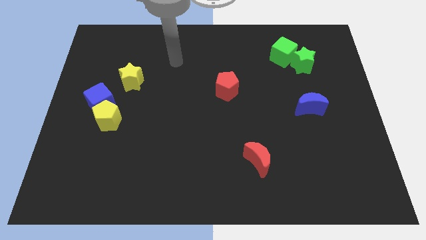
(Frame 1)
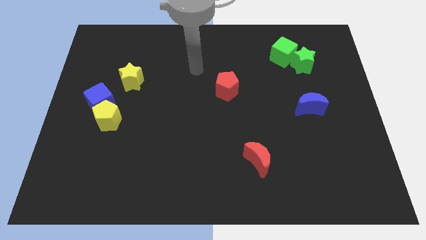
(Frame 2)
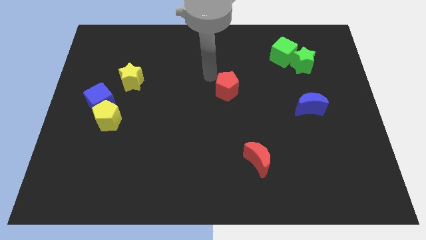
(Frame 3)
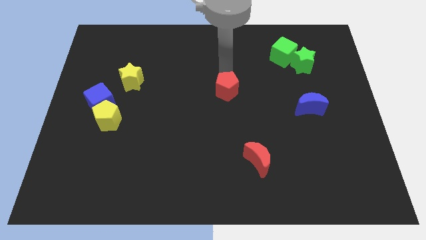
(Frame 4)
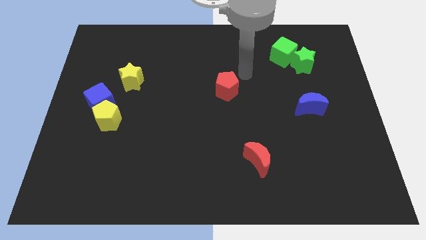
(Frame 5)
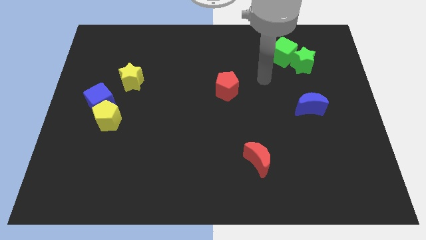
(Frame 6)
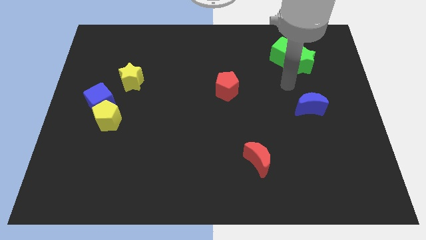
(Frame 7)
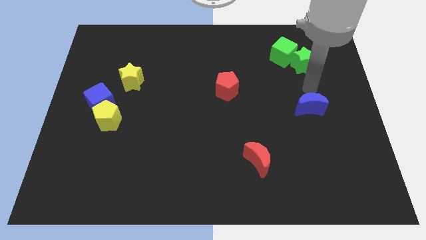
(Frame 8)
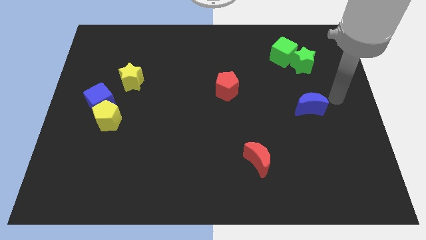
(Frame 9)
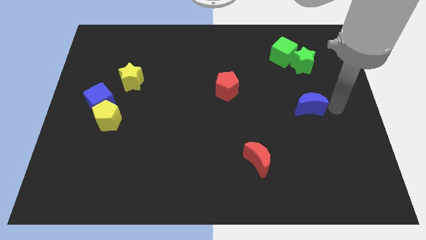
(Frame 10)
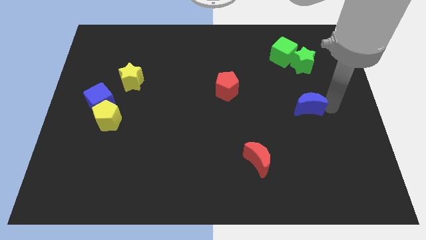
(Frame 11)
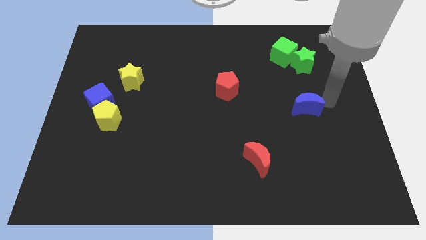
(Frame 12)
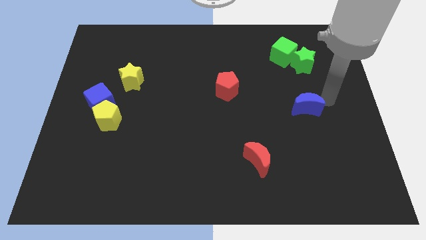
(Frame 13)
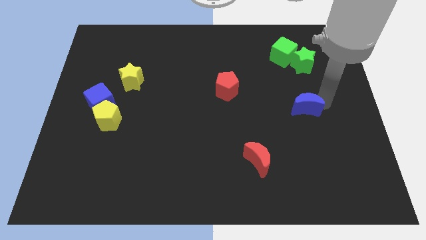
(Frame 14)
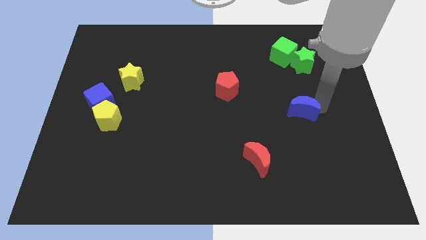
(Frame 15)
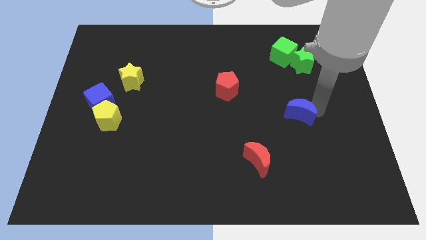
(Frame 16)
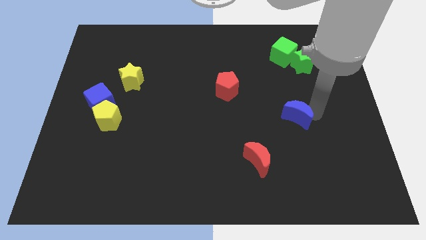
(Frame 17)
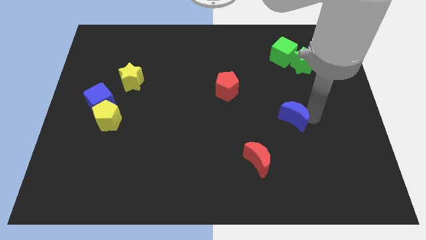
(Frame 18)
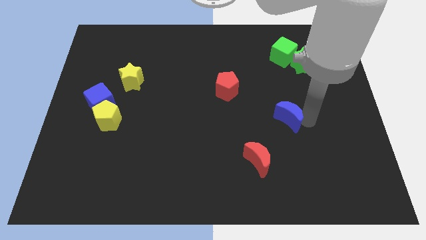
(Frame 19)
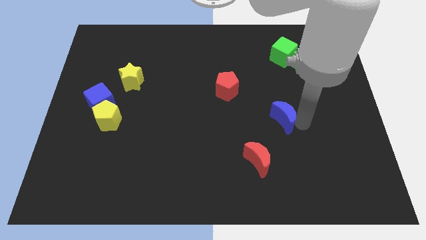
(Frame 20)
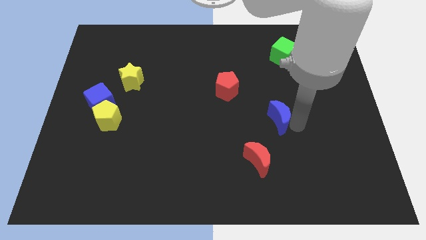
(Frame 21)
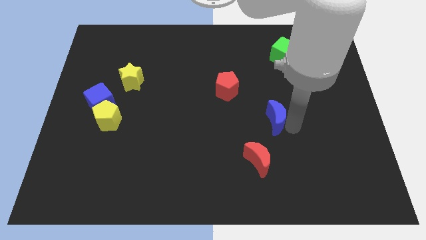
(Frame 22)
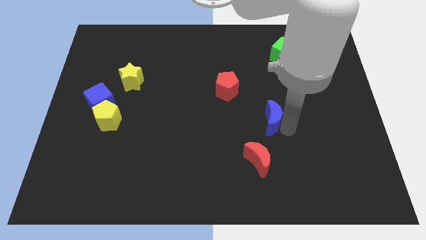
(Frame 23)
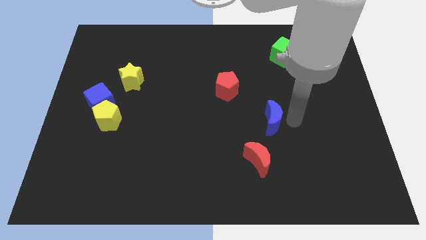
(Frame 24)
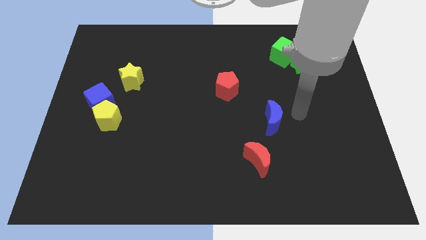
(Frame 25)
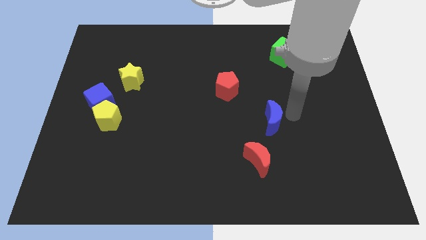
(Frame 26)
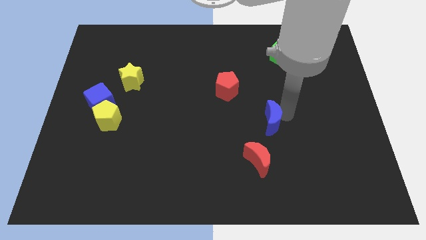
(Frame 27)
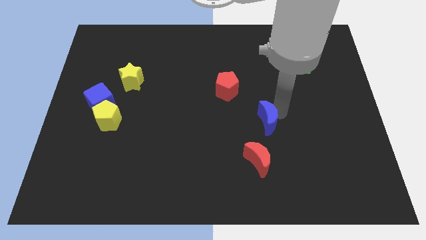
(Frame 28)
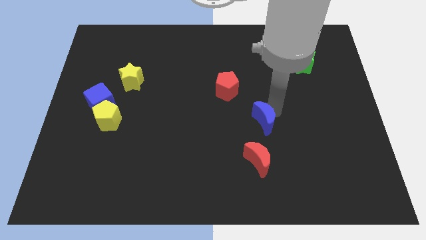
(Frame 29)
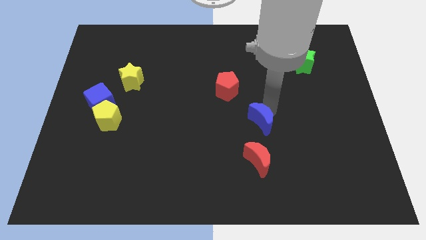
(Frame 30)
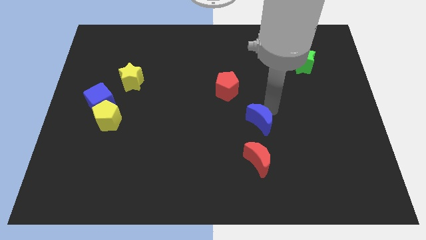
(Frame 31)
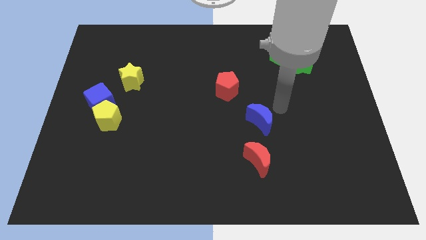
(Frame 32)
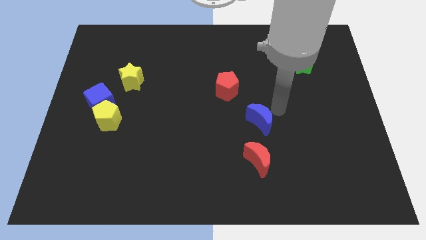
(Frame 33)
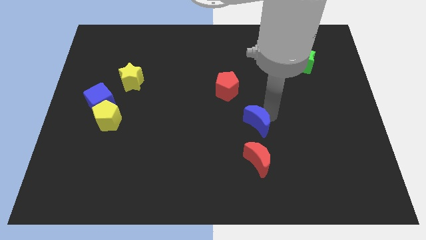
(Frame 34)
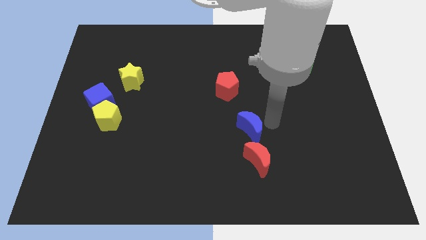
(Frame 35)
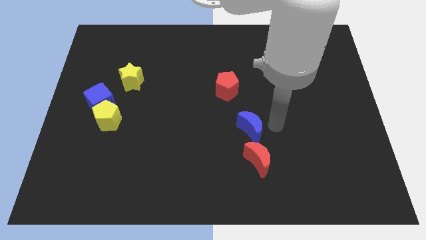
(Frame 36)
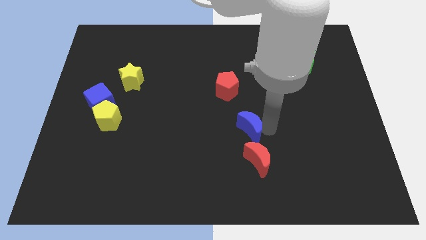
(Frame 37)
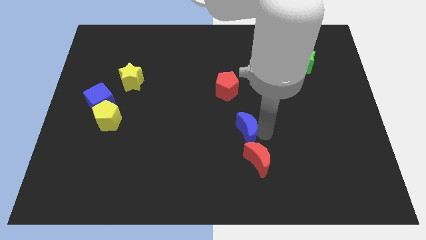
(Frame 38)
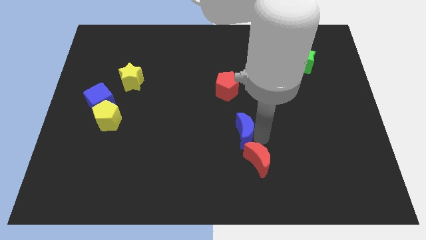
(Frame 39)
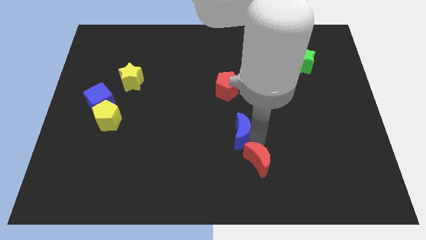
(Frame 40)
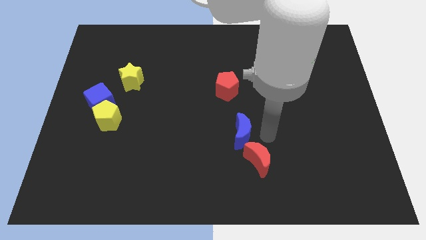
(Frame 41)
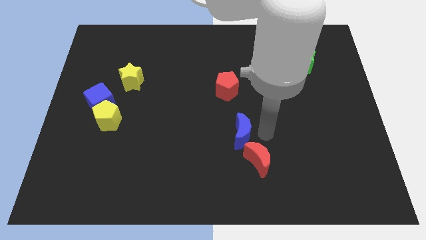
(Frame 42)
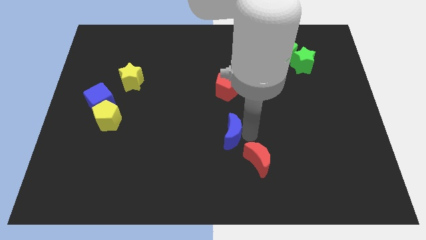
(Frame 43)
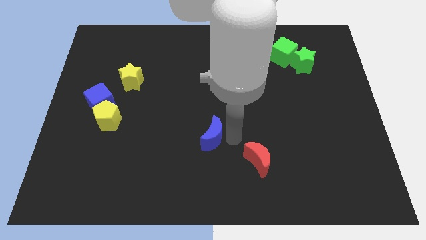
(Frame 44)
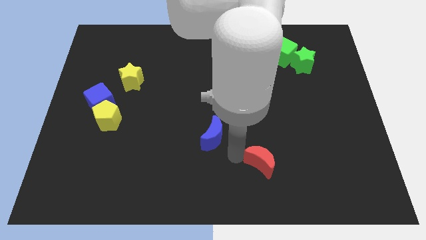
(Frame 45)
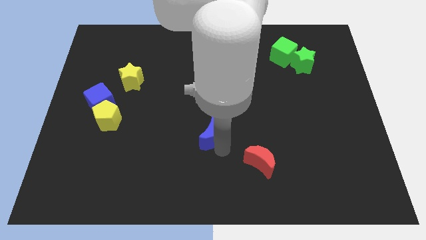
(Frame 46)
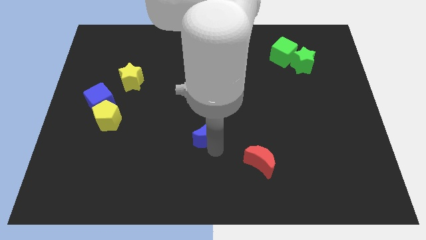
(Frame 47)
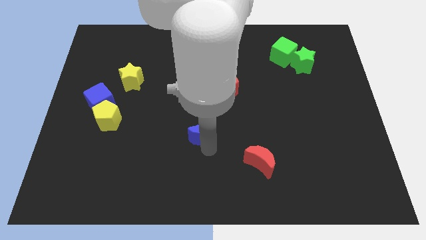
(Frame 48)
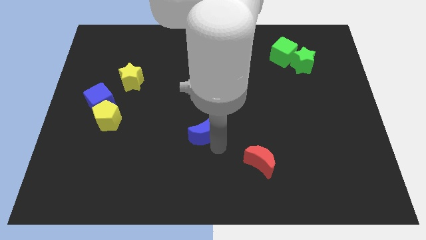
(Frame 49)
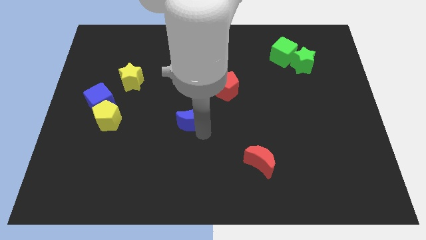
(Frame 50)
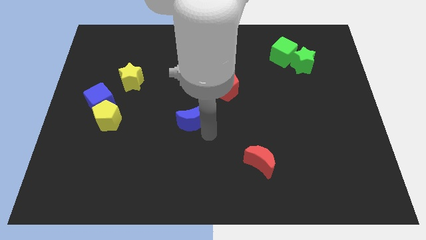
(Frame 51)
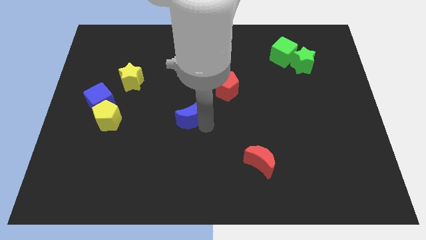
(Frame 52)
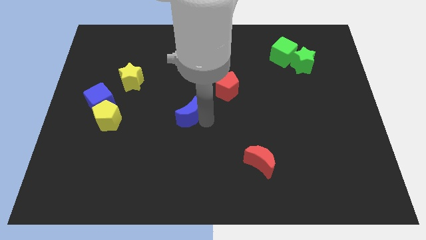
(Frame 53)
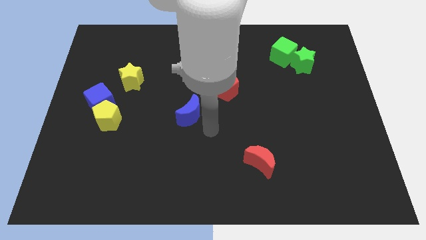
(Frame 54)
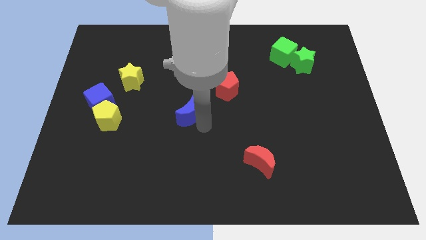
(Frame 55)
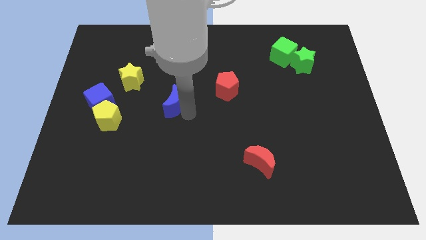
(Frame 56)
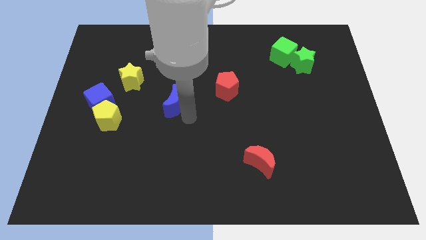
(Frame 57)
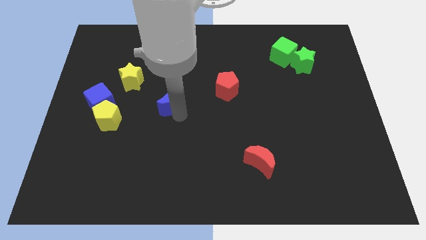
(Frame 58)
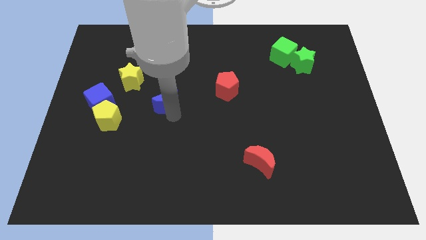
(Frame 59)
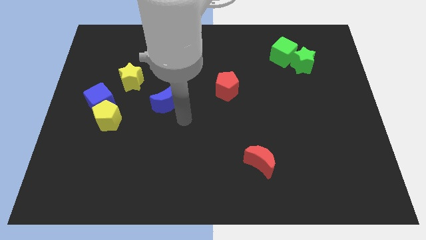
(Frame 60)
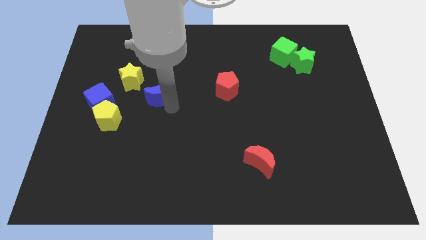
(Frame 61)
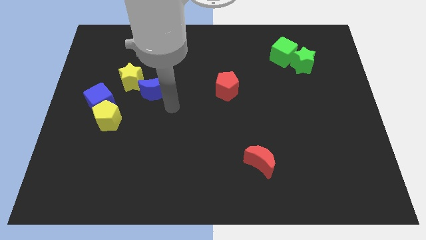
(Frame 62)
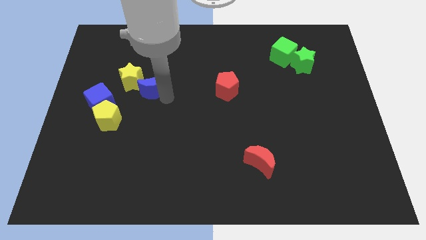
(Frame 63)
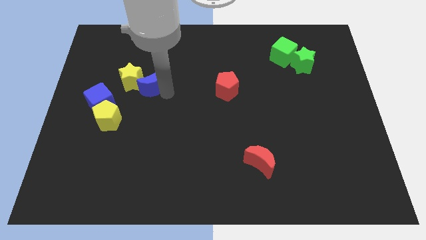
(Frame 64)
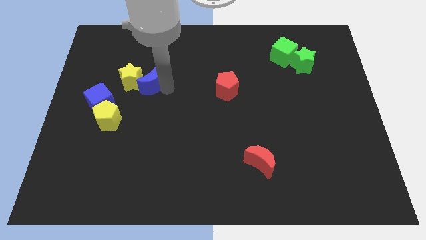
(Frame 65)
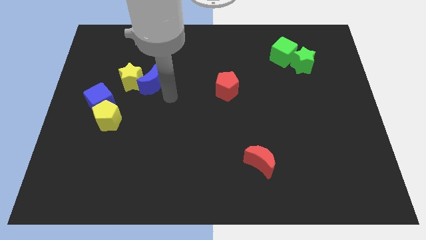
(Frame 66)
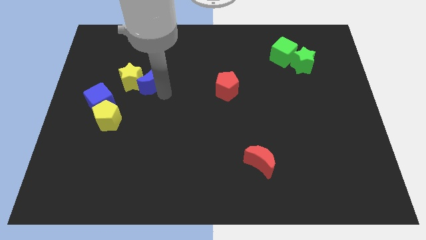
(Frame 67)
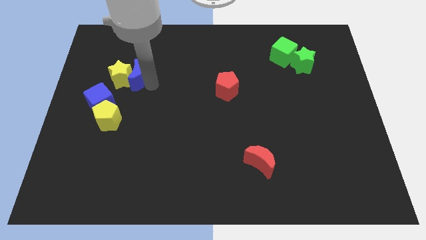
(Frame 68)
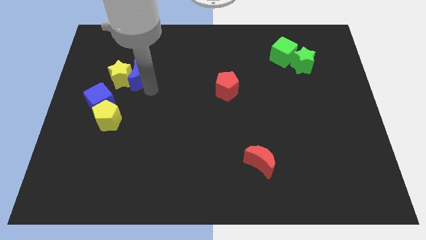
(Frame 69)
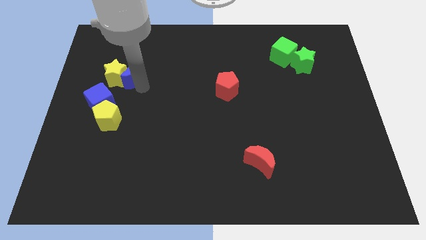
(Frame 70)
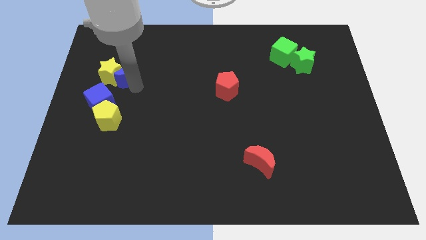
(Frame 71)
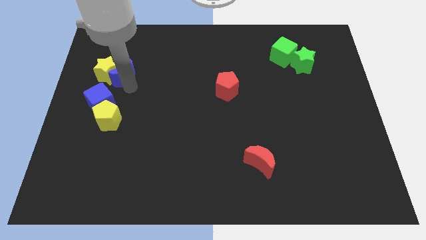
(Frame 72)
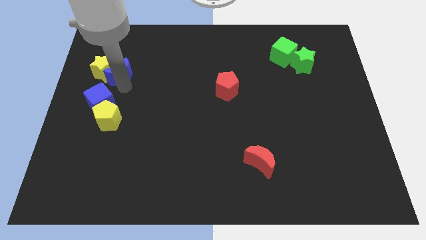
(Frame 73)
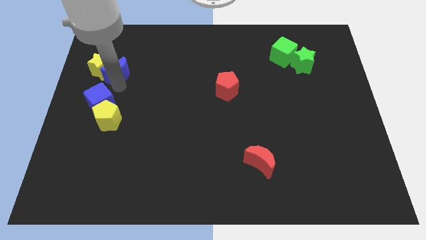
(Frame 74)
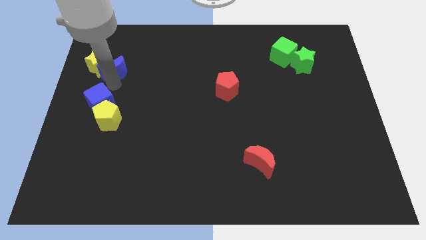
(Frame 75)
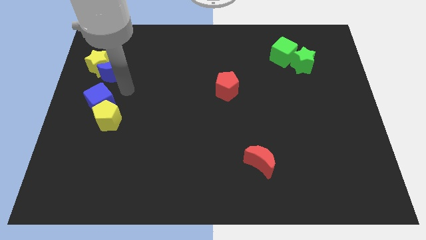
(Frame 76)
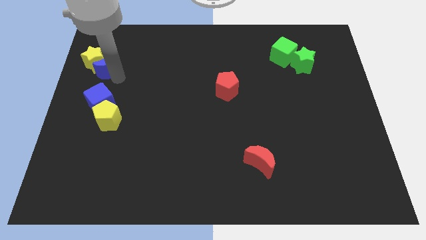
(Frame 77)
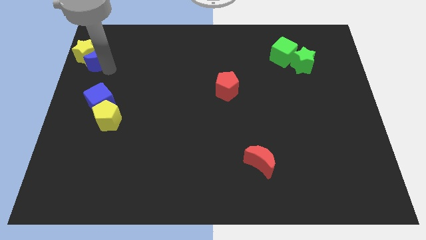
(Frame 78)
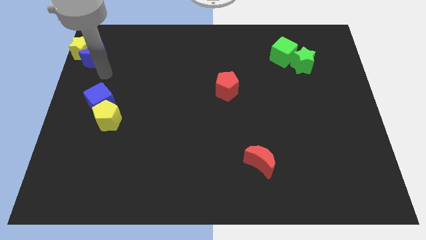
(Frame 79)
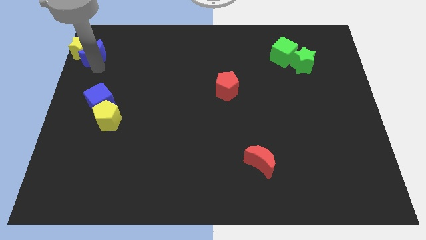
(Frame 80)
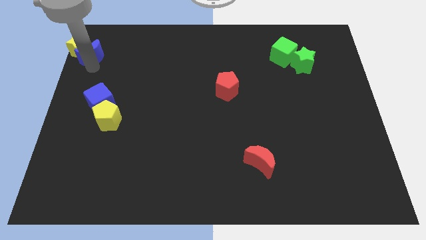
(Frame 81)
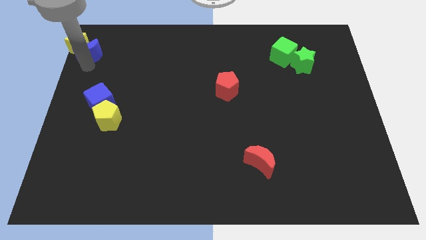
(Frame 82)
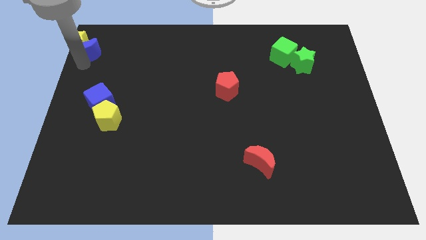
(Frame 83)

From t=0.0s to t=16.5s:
move the blue moon to the upper left corner
